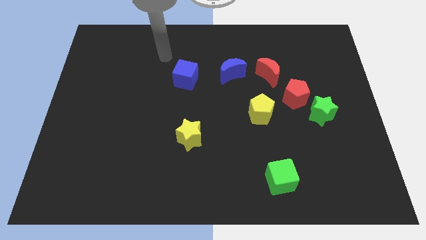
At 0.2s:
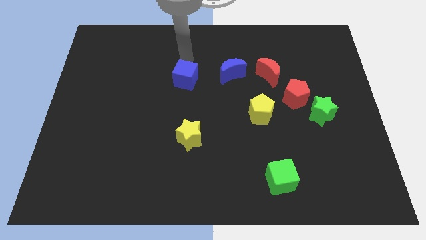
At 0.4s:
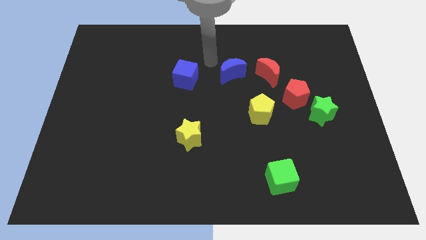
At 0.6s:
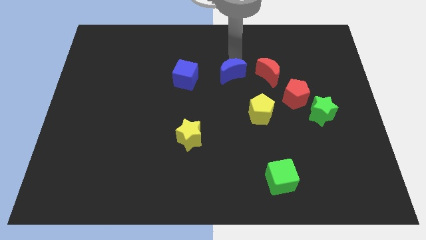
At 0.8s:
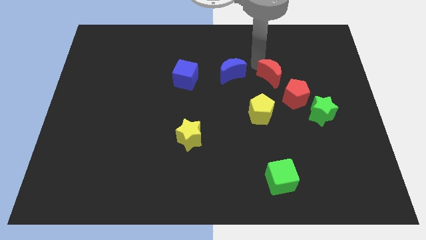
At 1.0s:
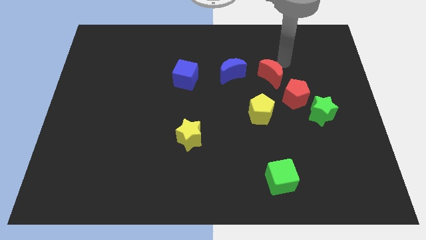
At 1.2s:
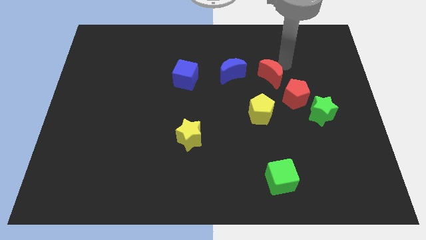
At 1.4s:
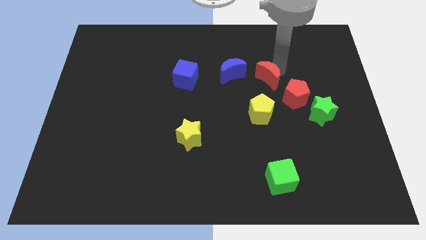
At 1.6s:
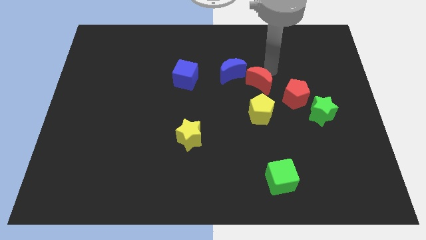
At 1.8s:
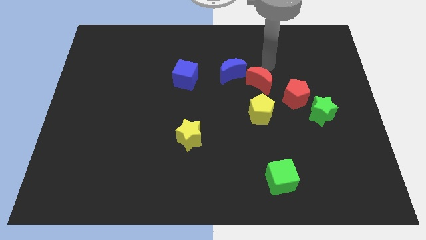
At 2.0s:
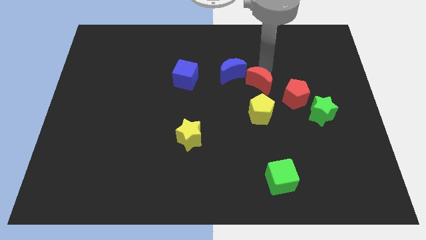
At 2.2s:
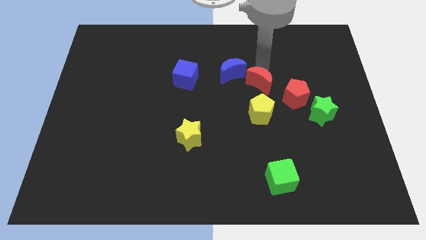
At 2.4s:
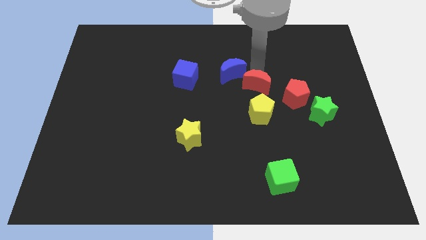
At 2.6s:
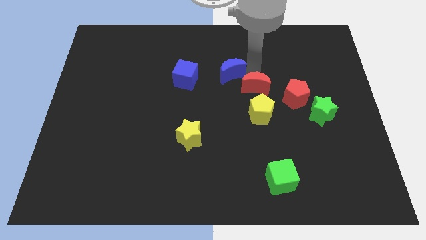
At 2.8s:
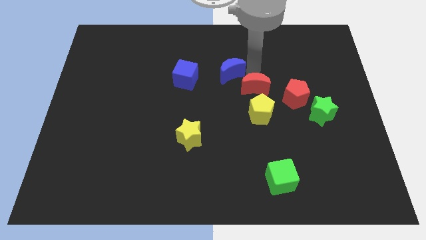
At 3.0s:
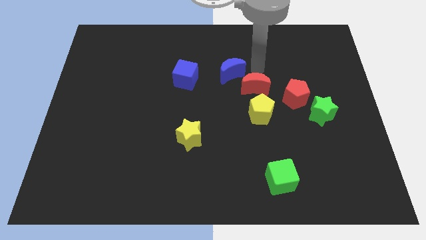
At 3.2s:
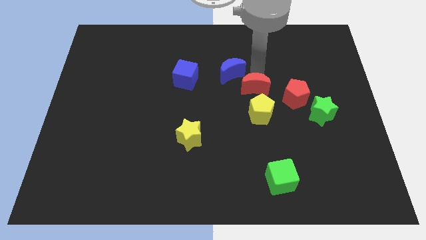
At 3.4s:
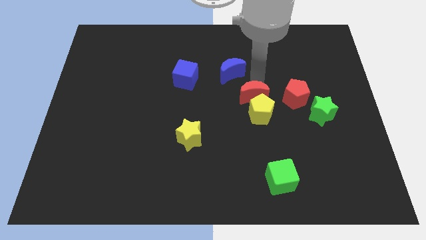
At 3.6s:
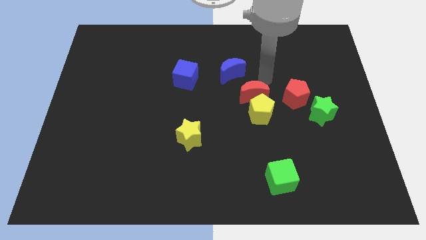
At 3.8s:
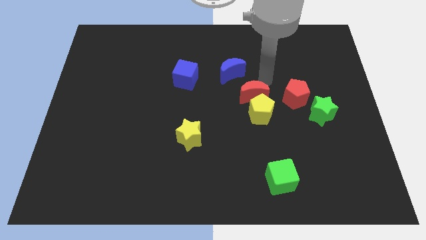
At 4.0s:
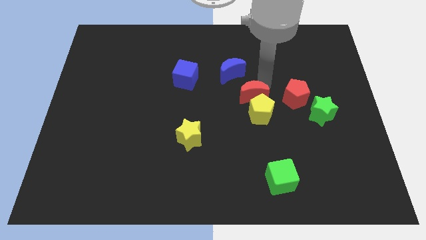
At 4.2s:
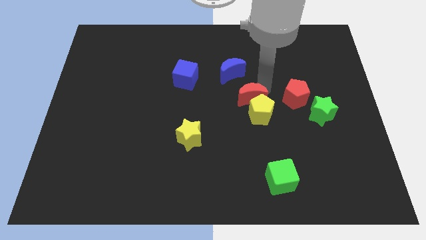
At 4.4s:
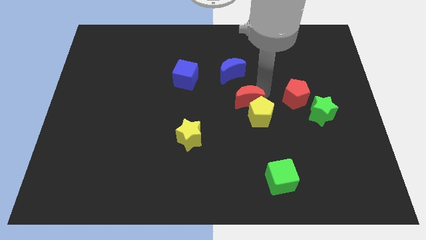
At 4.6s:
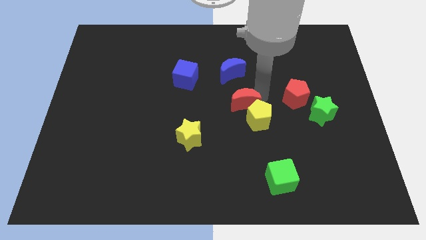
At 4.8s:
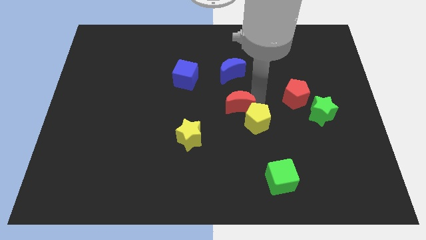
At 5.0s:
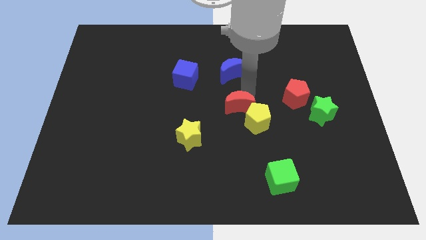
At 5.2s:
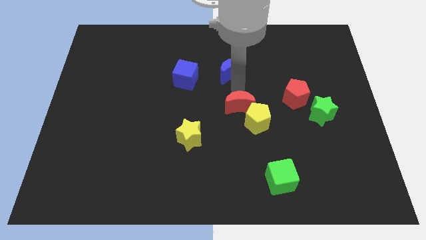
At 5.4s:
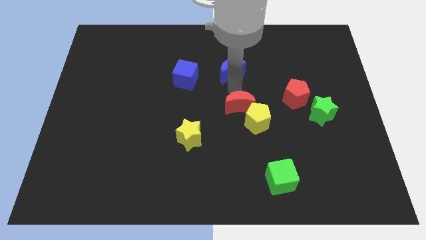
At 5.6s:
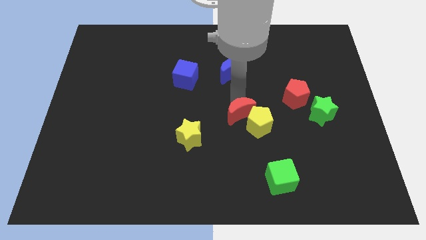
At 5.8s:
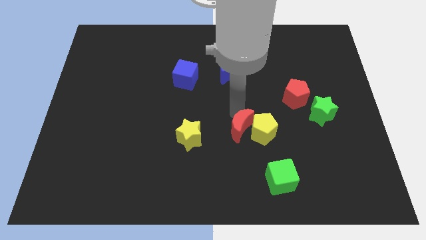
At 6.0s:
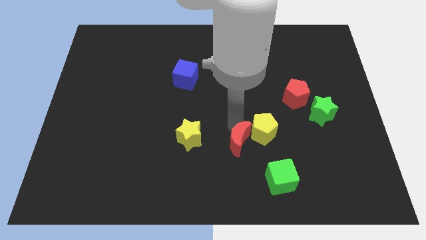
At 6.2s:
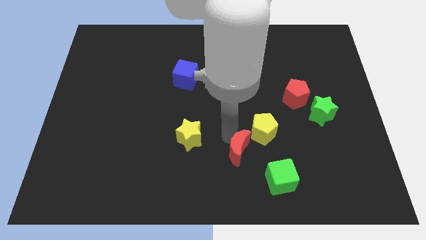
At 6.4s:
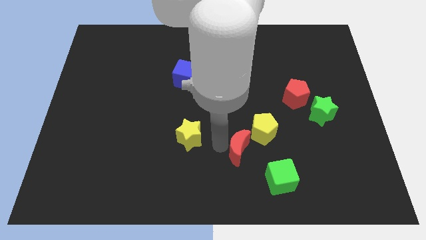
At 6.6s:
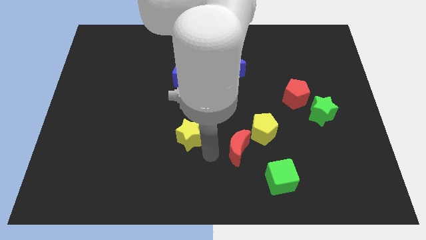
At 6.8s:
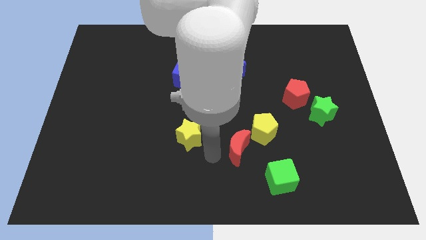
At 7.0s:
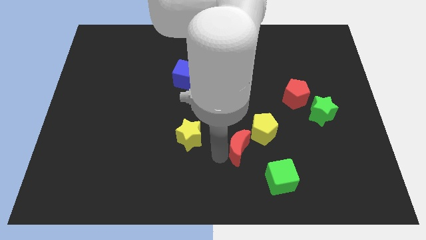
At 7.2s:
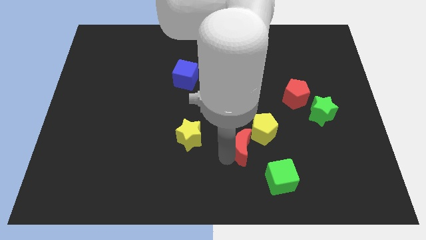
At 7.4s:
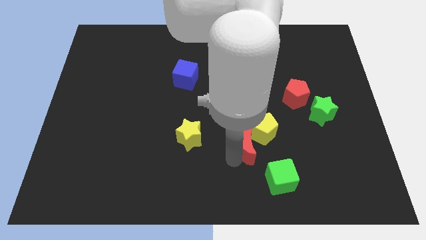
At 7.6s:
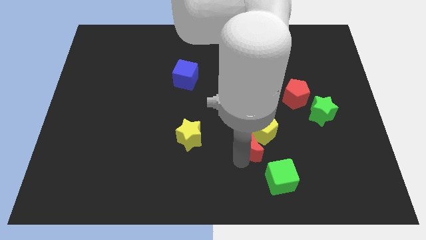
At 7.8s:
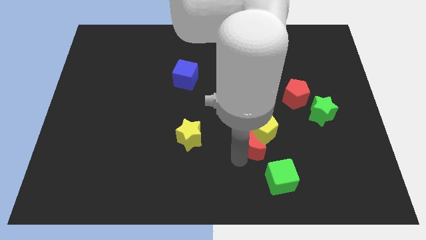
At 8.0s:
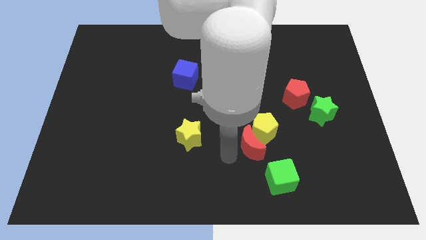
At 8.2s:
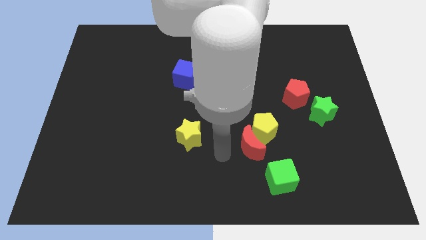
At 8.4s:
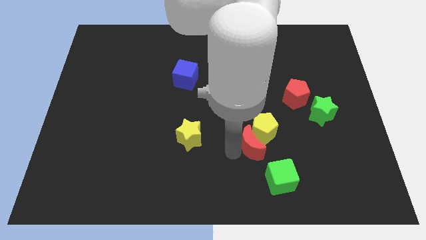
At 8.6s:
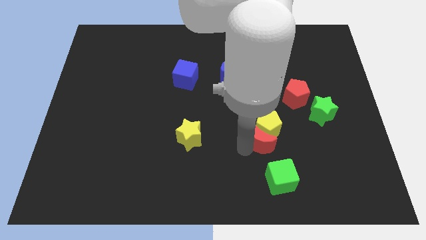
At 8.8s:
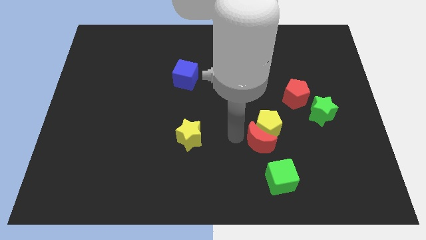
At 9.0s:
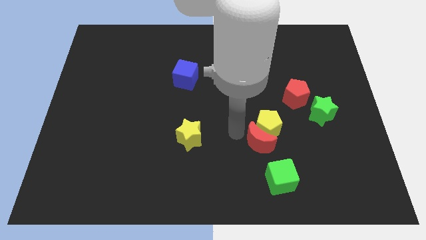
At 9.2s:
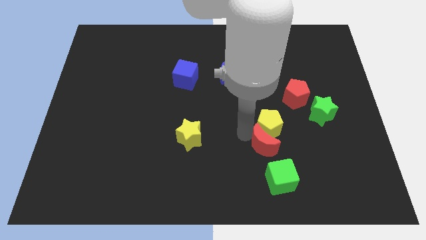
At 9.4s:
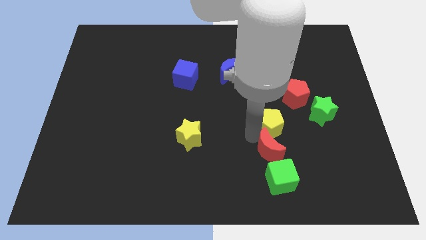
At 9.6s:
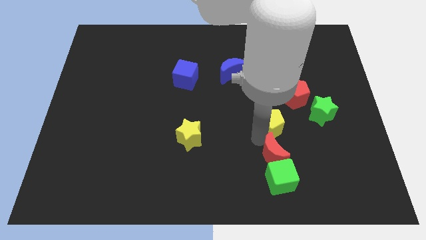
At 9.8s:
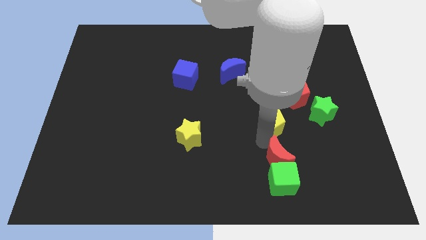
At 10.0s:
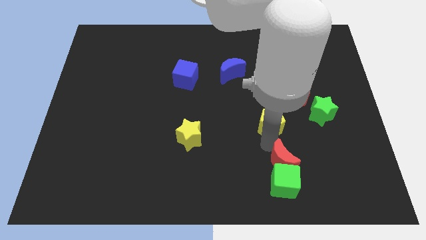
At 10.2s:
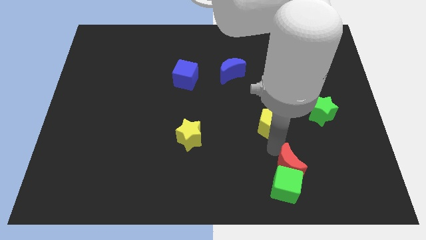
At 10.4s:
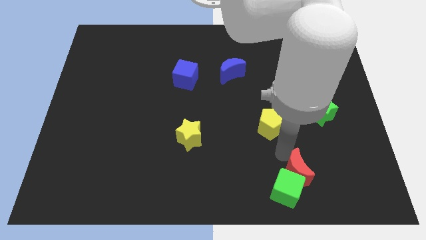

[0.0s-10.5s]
slide the red moon just right of the green cube

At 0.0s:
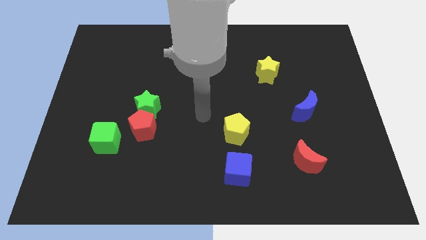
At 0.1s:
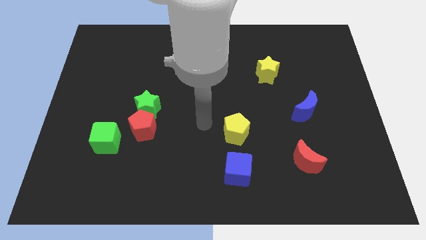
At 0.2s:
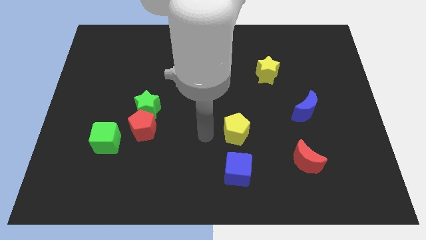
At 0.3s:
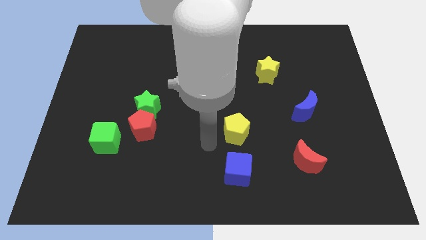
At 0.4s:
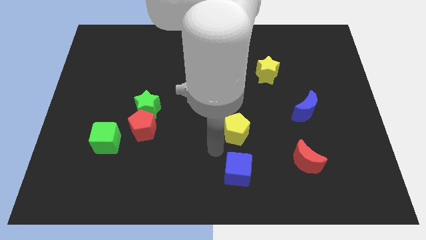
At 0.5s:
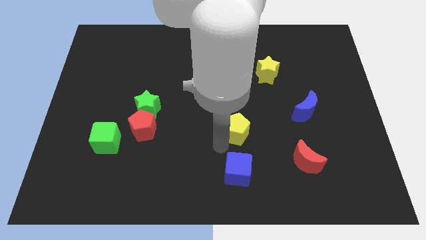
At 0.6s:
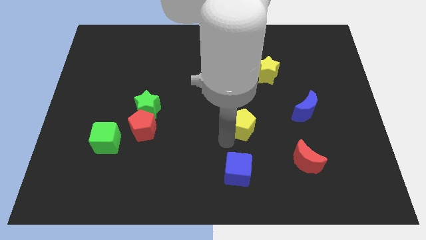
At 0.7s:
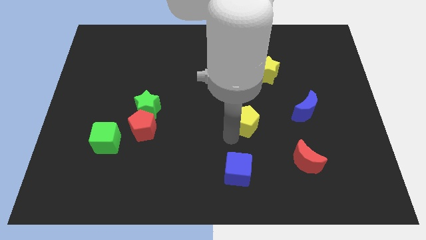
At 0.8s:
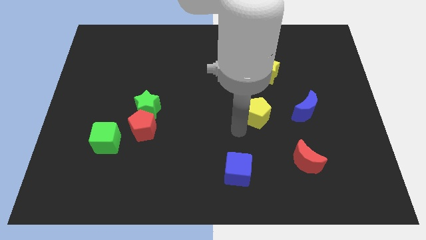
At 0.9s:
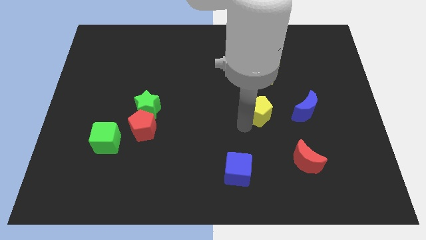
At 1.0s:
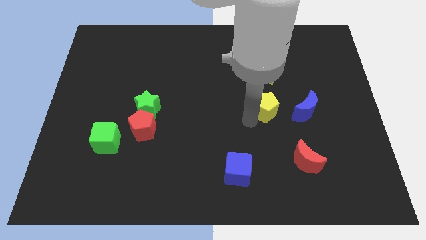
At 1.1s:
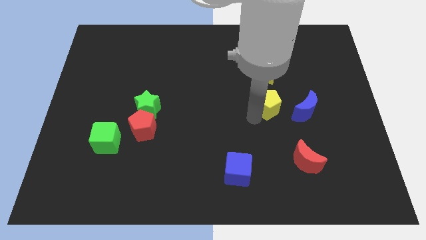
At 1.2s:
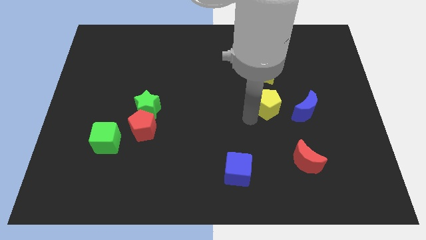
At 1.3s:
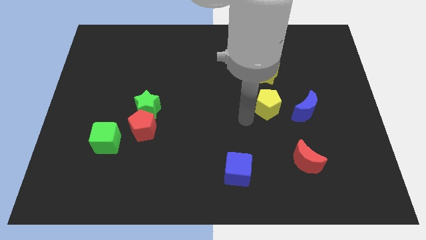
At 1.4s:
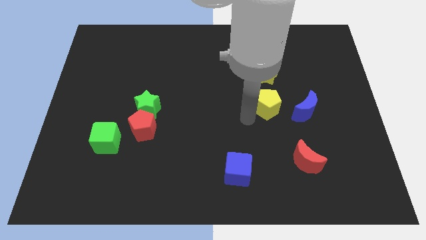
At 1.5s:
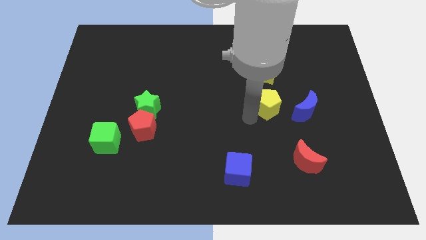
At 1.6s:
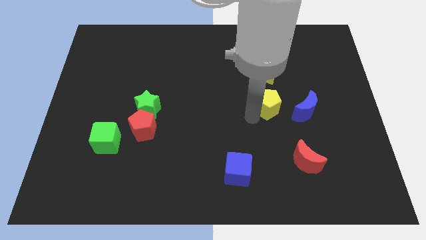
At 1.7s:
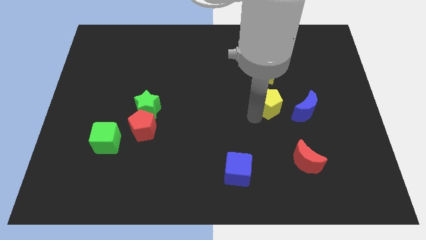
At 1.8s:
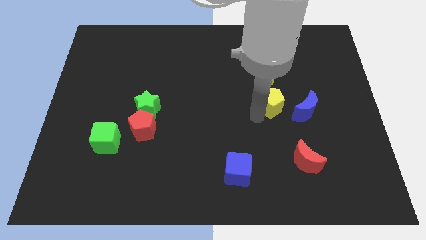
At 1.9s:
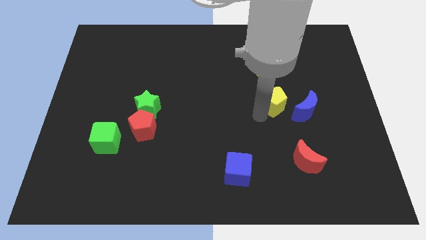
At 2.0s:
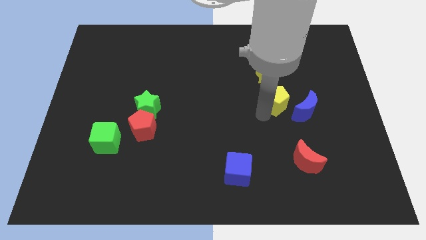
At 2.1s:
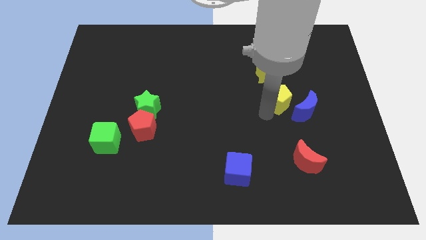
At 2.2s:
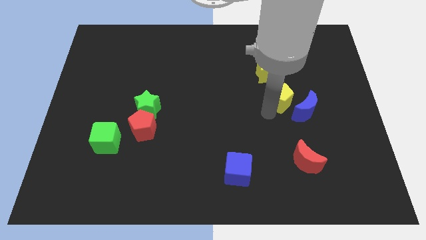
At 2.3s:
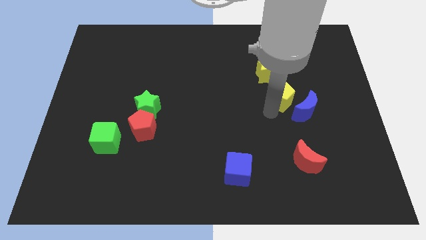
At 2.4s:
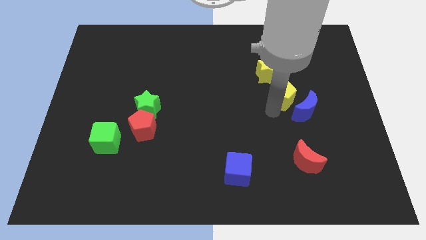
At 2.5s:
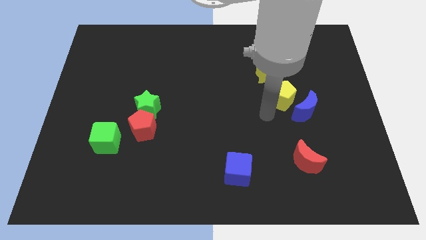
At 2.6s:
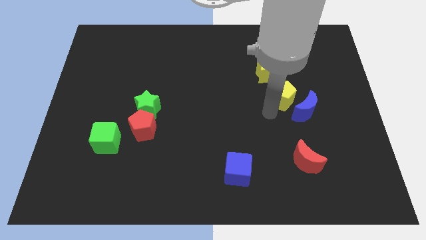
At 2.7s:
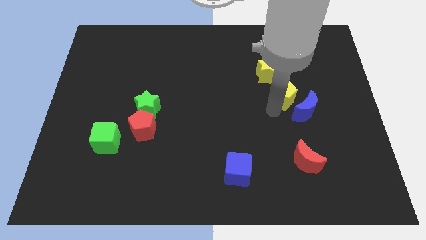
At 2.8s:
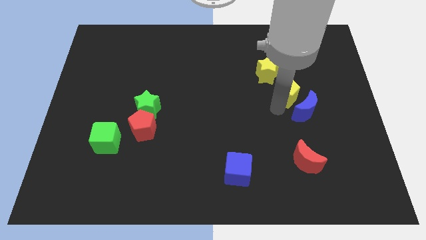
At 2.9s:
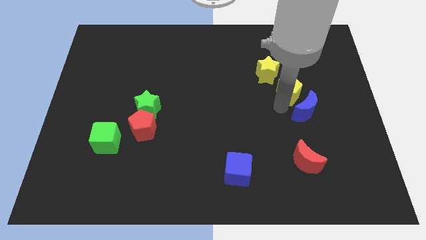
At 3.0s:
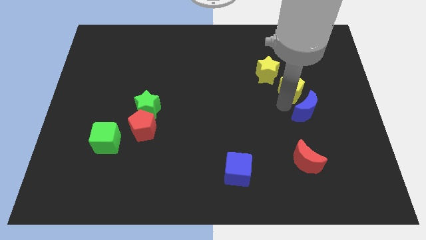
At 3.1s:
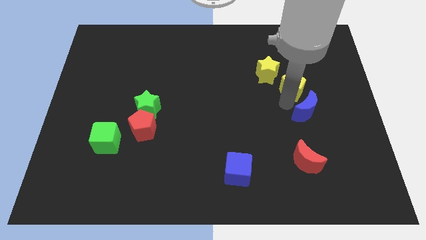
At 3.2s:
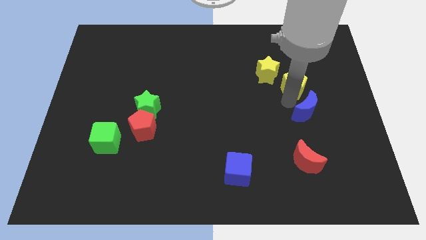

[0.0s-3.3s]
slide the yellow pentagon to the right side of the yellow star
